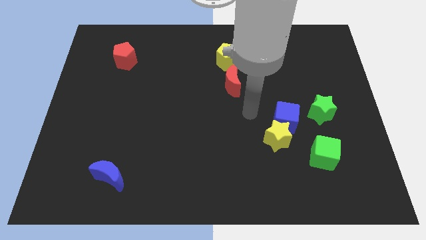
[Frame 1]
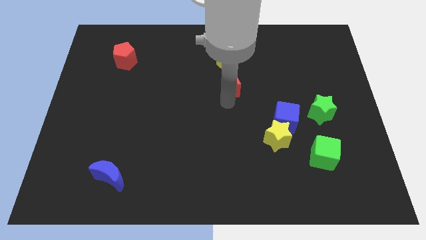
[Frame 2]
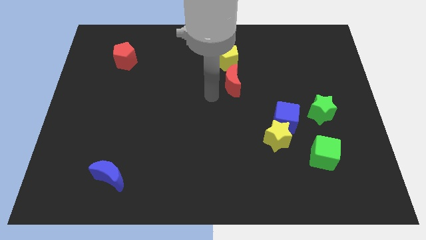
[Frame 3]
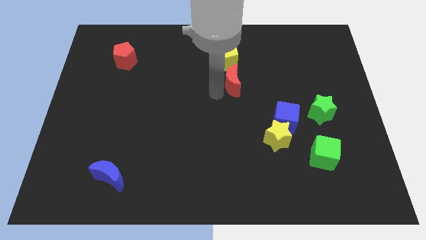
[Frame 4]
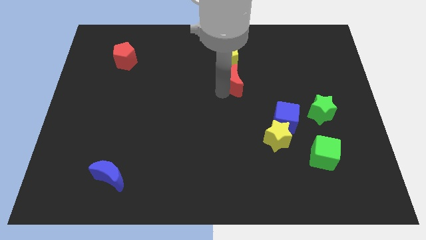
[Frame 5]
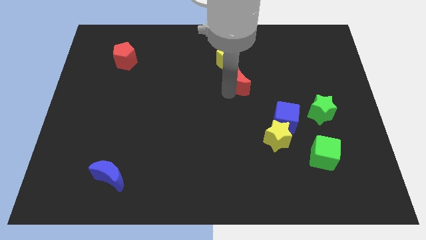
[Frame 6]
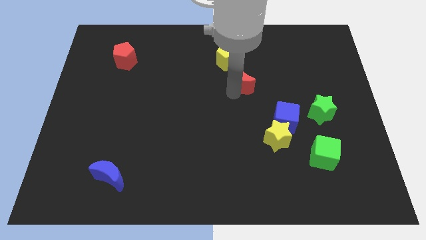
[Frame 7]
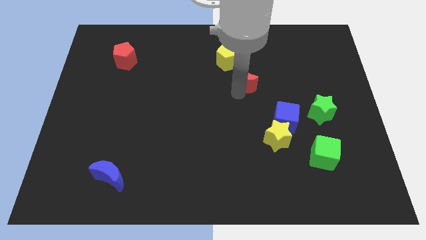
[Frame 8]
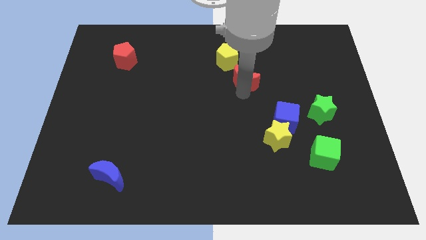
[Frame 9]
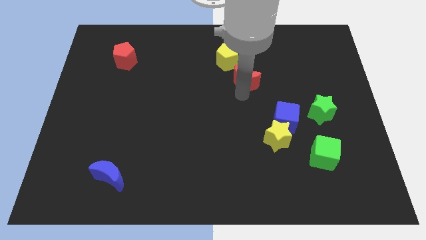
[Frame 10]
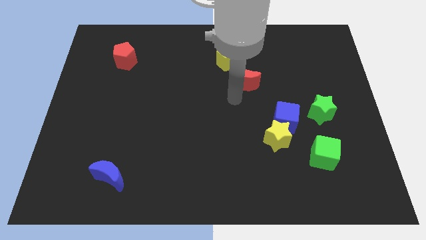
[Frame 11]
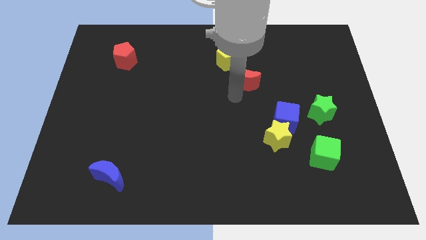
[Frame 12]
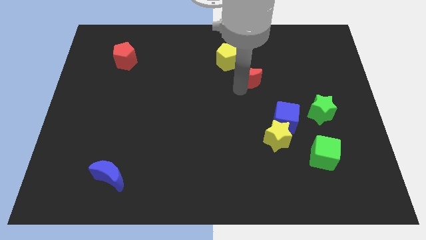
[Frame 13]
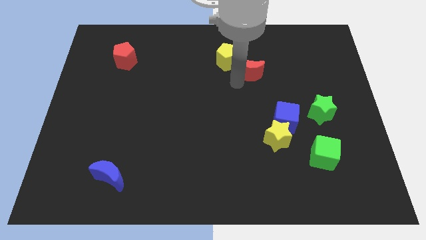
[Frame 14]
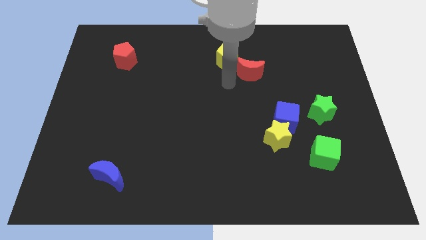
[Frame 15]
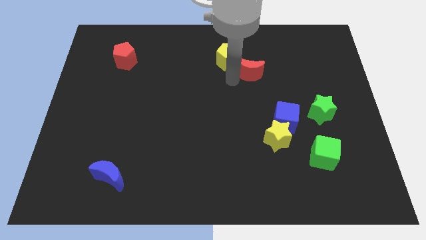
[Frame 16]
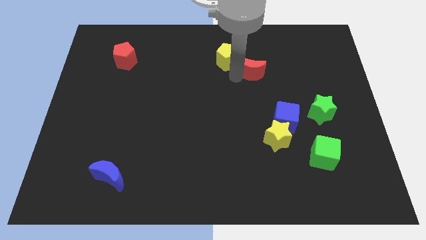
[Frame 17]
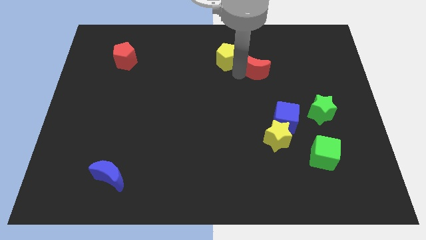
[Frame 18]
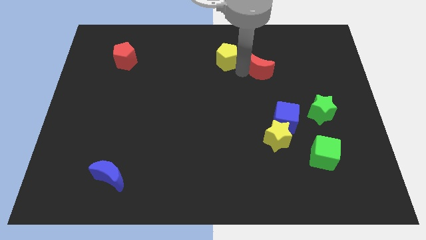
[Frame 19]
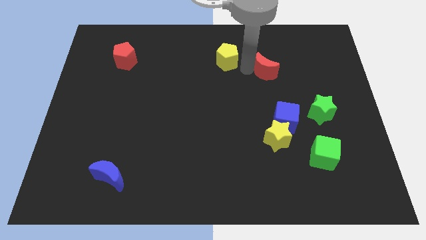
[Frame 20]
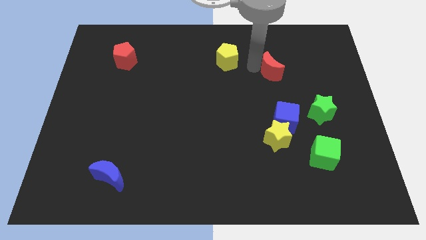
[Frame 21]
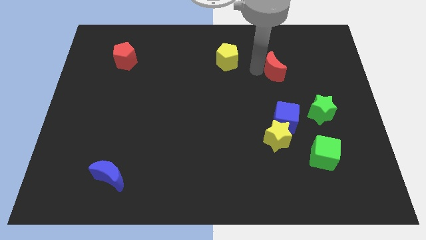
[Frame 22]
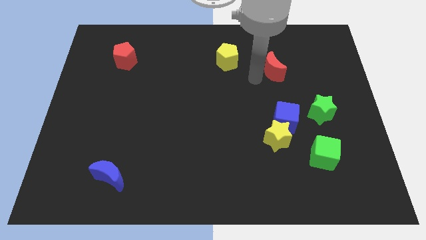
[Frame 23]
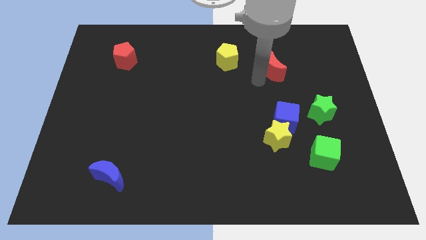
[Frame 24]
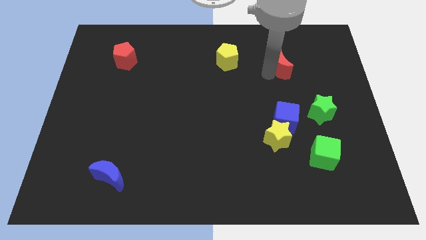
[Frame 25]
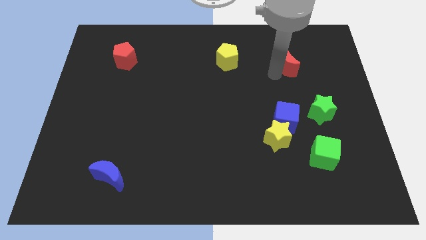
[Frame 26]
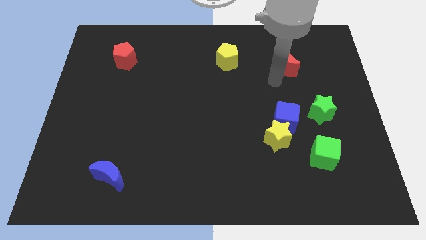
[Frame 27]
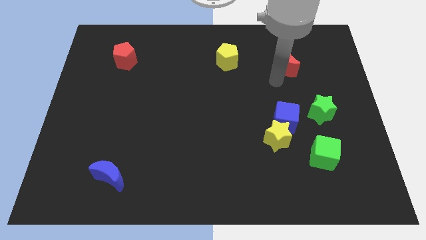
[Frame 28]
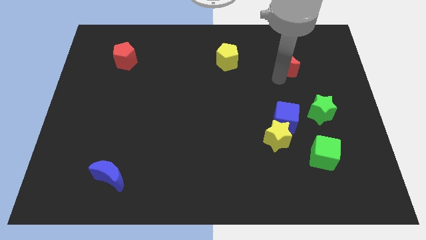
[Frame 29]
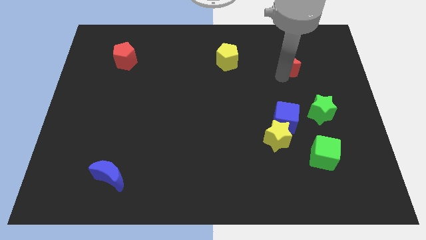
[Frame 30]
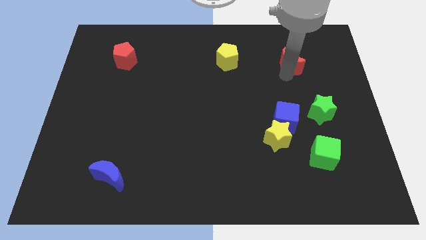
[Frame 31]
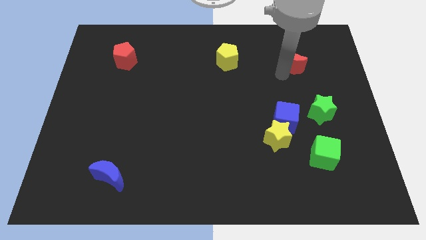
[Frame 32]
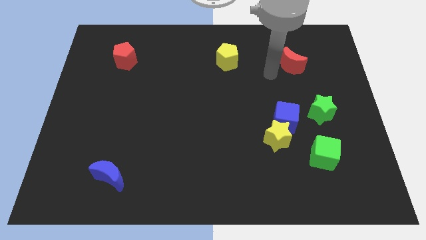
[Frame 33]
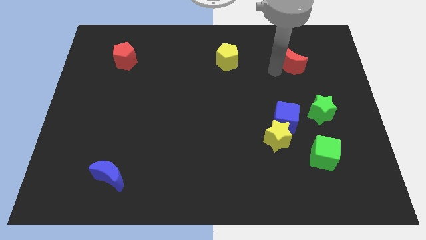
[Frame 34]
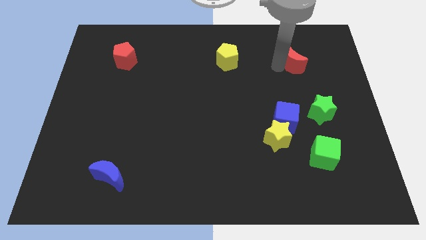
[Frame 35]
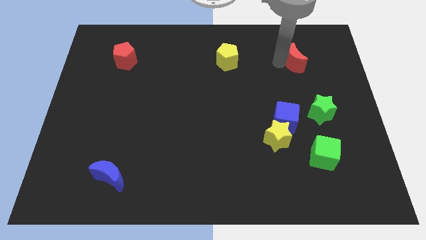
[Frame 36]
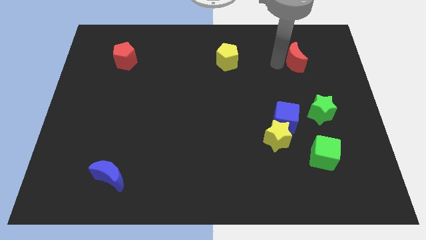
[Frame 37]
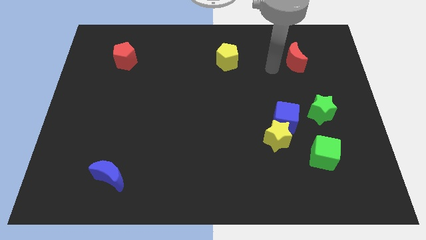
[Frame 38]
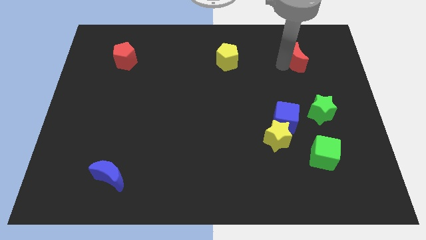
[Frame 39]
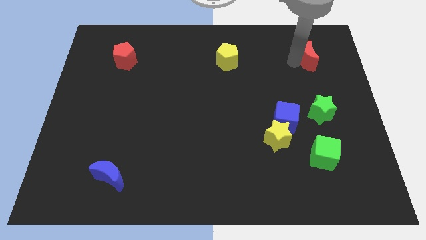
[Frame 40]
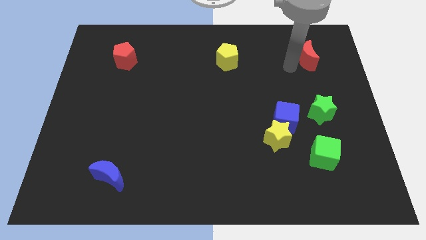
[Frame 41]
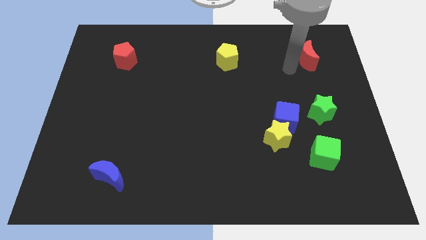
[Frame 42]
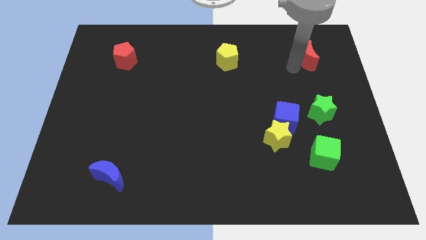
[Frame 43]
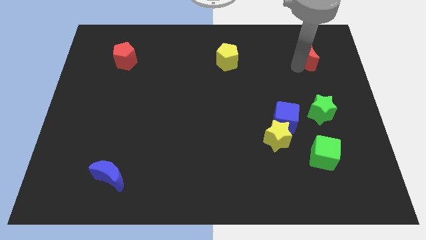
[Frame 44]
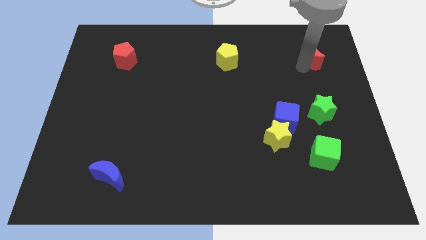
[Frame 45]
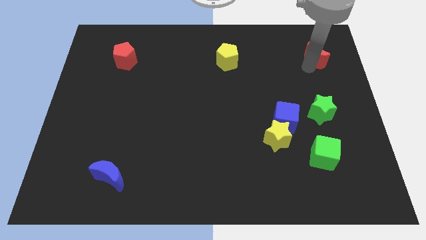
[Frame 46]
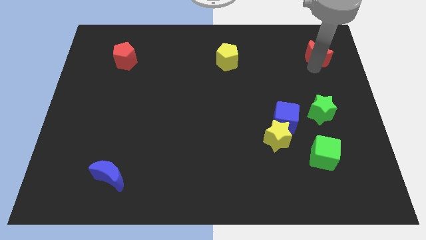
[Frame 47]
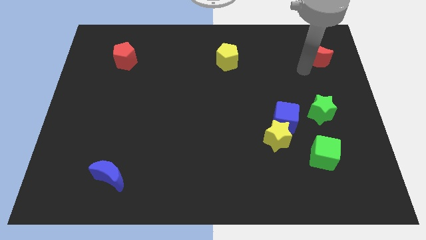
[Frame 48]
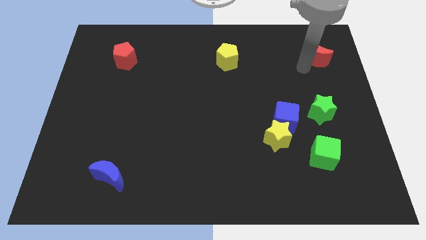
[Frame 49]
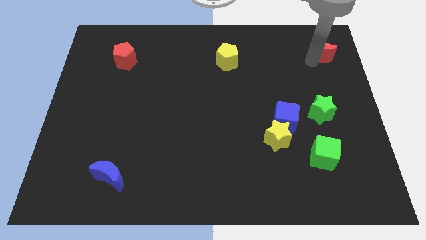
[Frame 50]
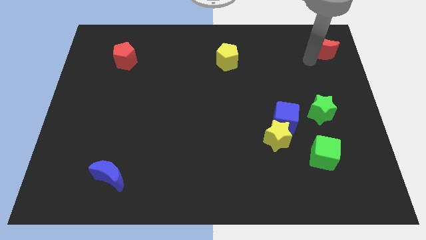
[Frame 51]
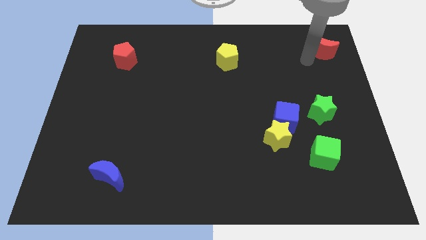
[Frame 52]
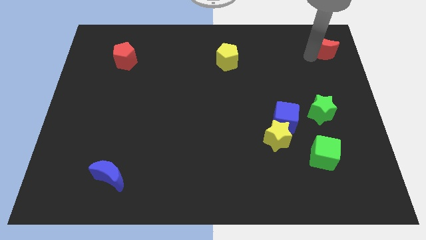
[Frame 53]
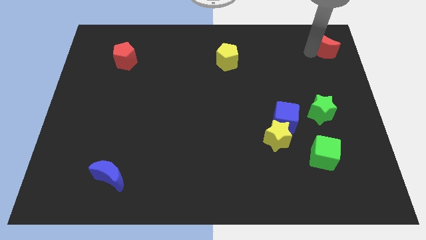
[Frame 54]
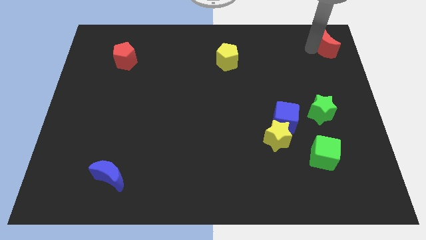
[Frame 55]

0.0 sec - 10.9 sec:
slide the red moon to the top right
